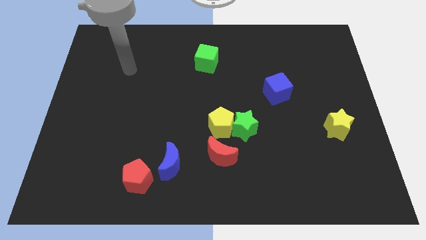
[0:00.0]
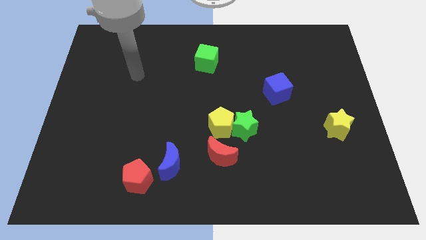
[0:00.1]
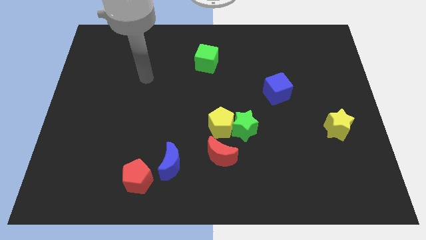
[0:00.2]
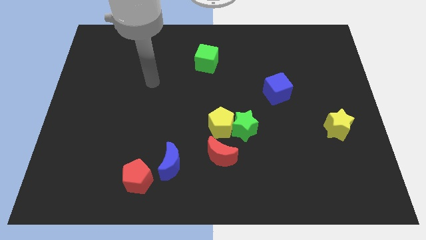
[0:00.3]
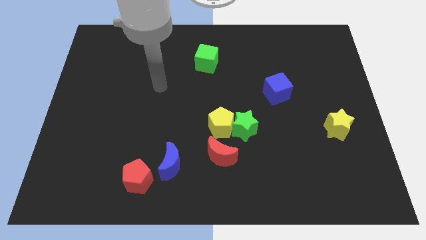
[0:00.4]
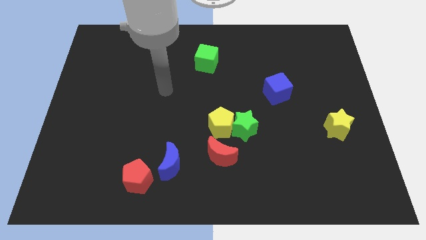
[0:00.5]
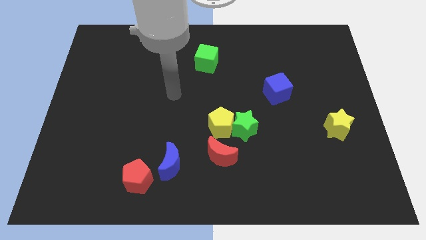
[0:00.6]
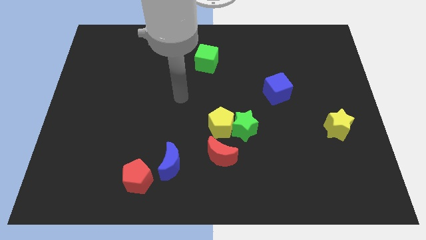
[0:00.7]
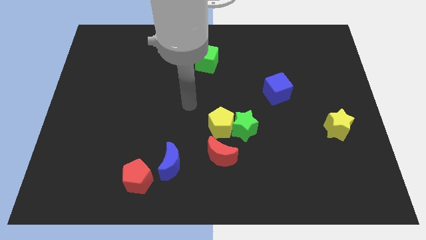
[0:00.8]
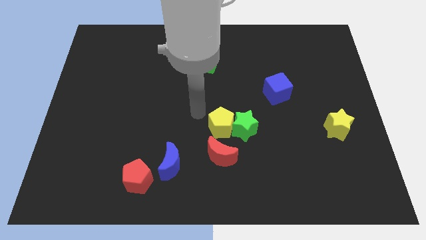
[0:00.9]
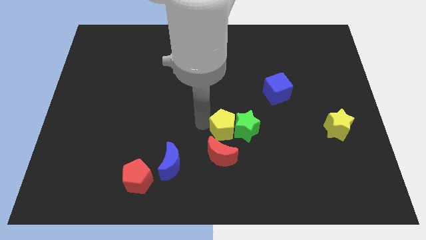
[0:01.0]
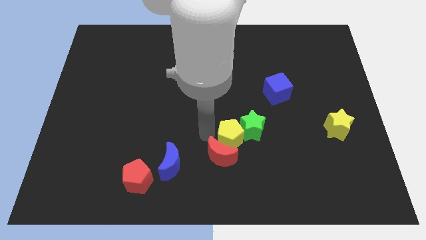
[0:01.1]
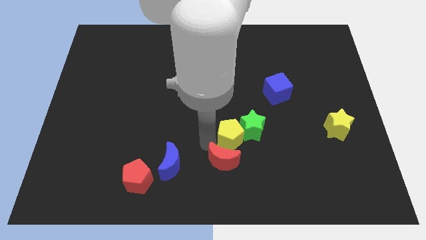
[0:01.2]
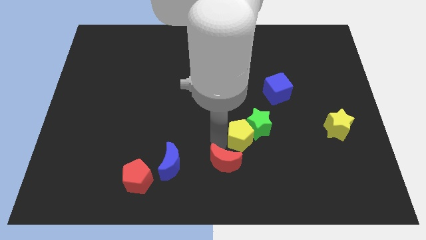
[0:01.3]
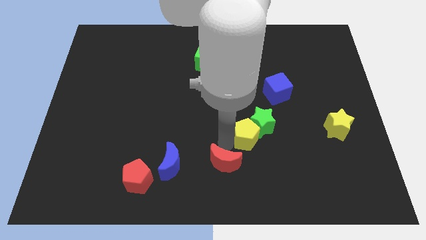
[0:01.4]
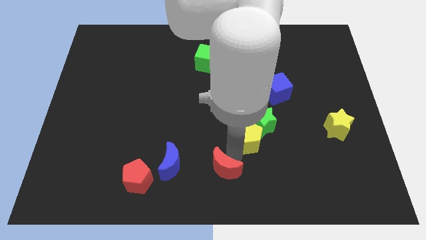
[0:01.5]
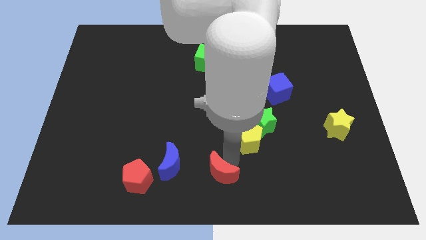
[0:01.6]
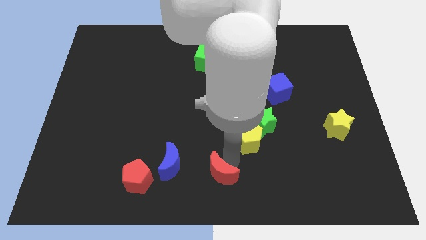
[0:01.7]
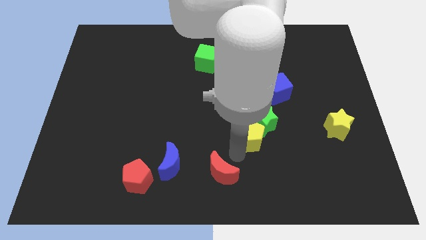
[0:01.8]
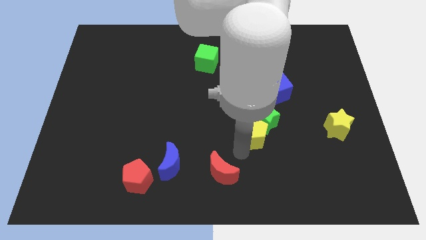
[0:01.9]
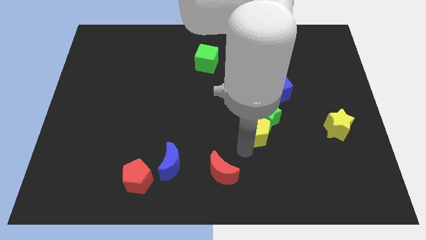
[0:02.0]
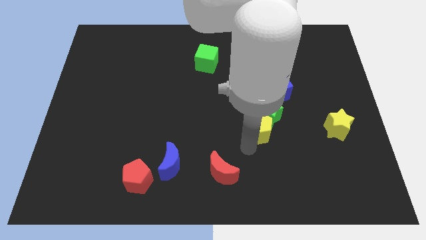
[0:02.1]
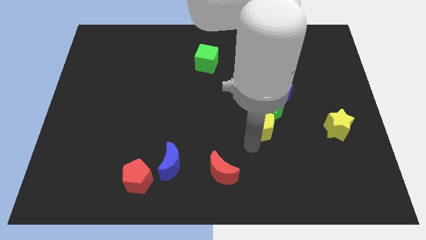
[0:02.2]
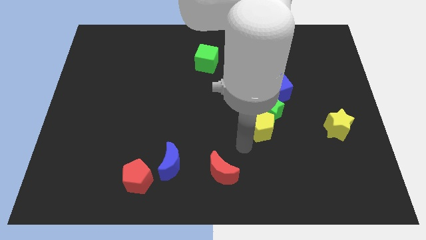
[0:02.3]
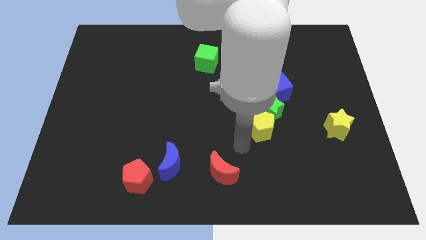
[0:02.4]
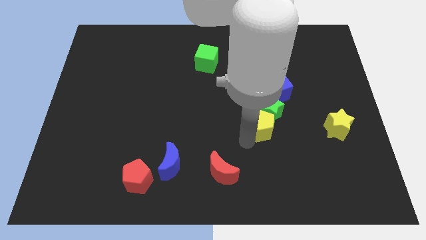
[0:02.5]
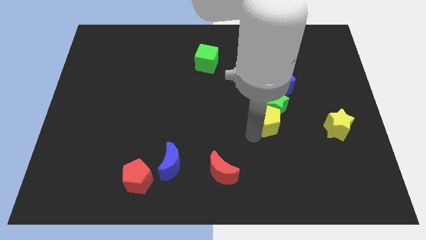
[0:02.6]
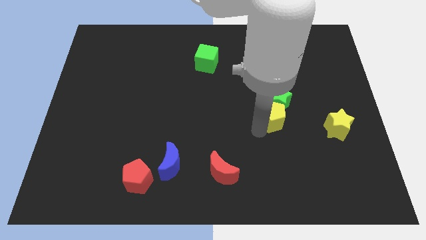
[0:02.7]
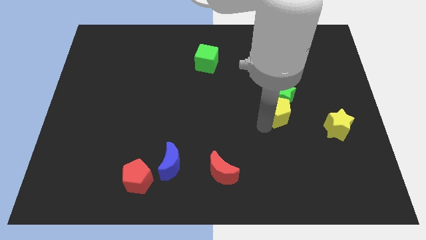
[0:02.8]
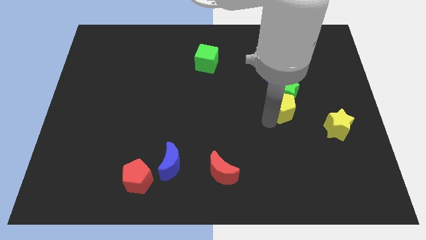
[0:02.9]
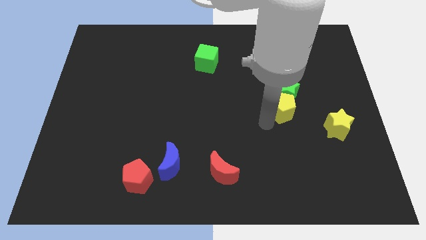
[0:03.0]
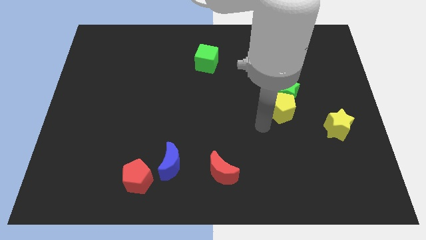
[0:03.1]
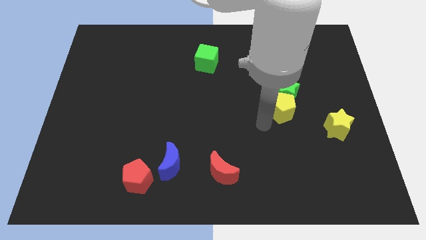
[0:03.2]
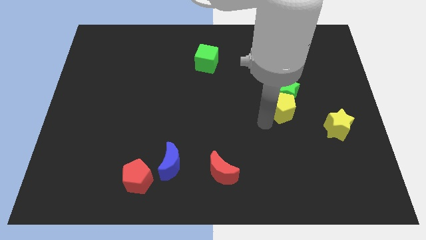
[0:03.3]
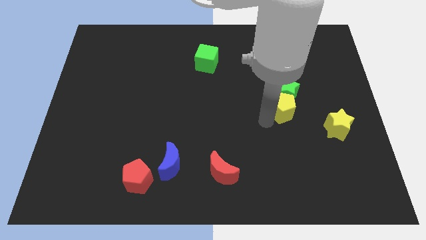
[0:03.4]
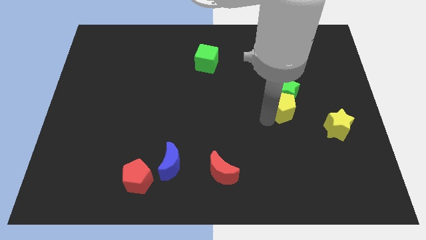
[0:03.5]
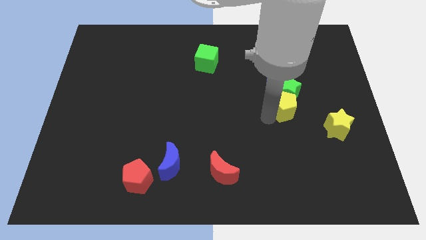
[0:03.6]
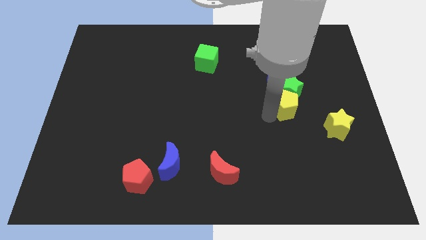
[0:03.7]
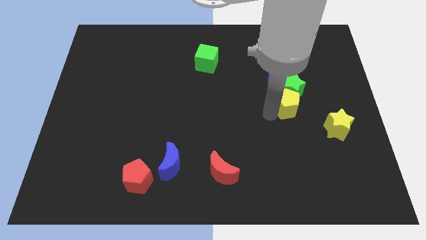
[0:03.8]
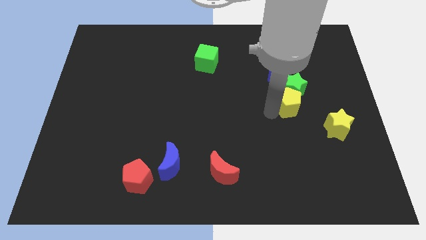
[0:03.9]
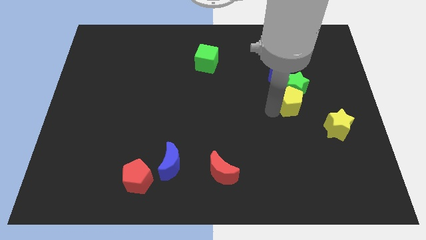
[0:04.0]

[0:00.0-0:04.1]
separate the yellow pentagon from the green star and red moon

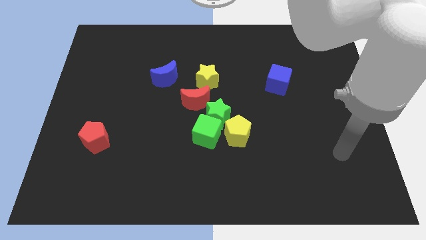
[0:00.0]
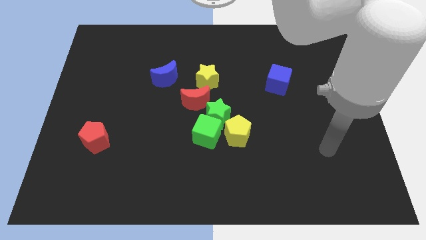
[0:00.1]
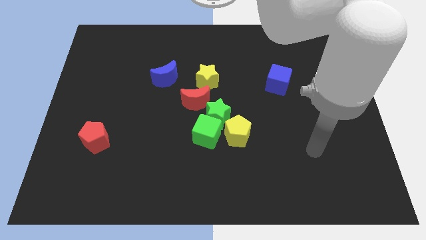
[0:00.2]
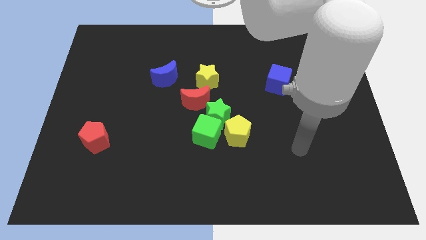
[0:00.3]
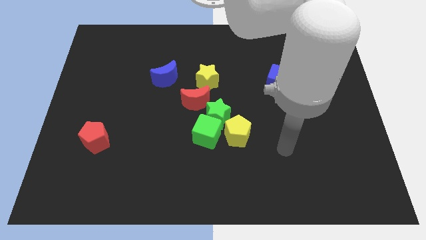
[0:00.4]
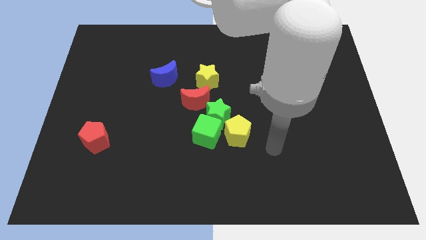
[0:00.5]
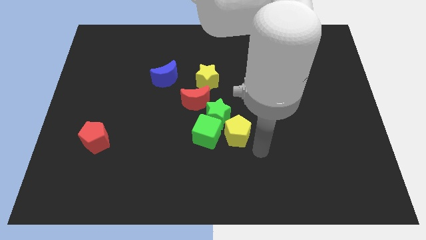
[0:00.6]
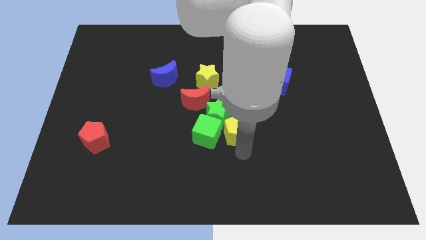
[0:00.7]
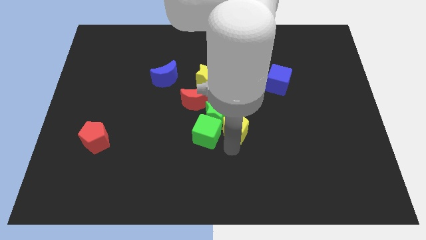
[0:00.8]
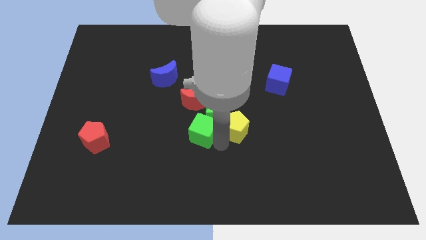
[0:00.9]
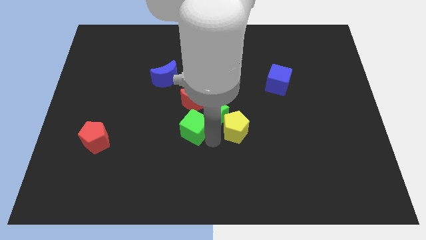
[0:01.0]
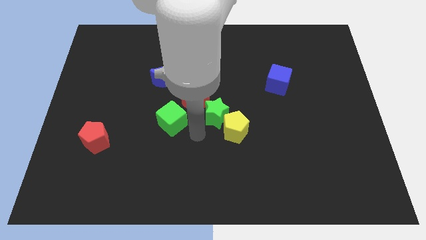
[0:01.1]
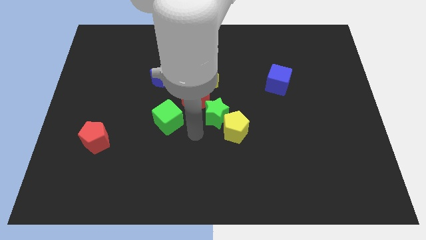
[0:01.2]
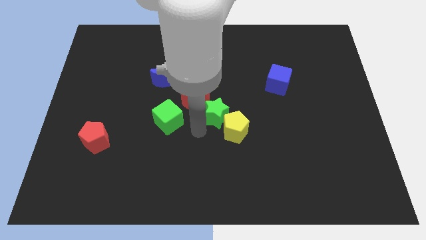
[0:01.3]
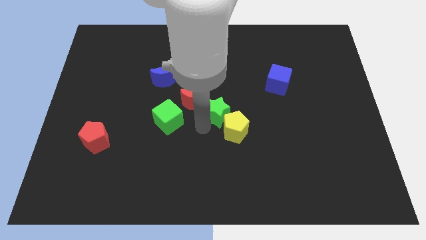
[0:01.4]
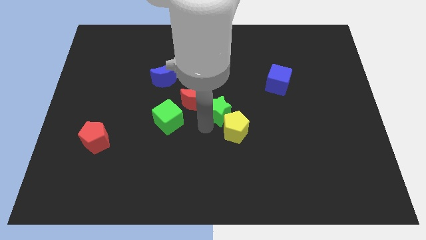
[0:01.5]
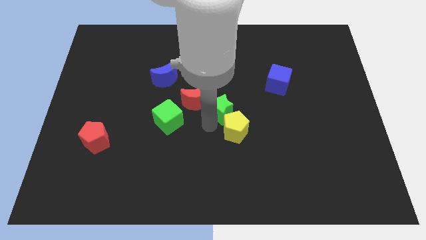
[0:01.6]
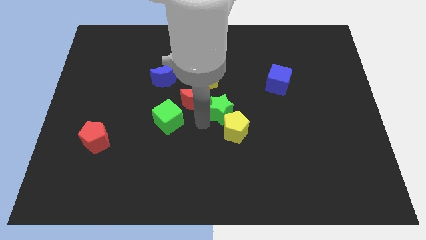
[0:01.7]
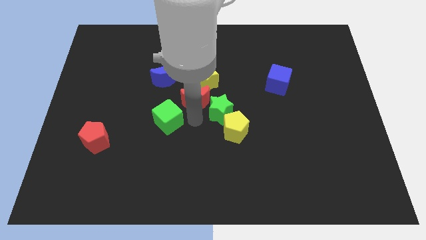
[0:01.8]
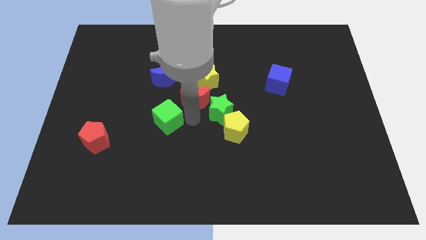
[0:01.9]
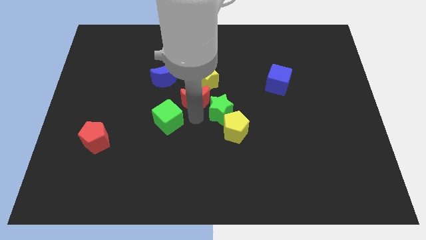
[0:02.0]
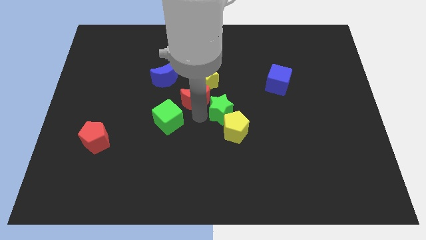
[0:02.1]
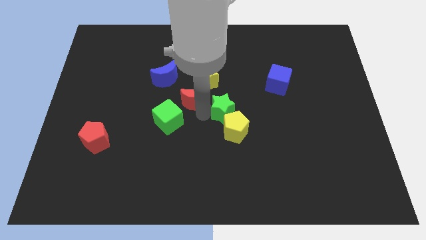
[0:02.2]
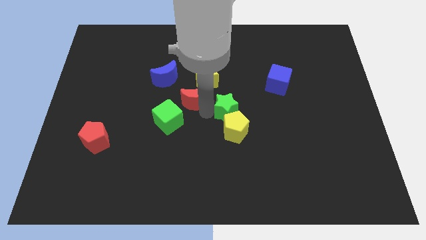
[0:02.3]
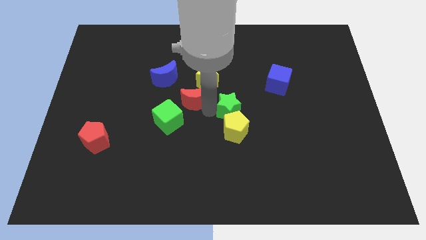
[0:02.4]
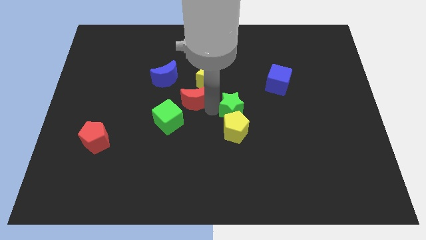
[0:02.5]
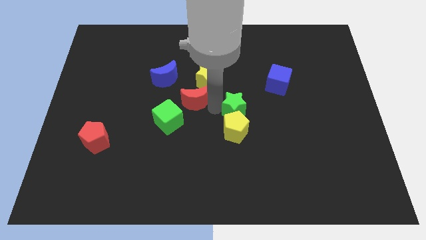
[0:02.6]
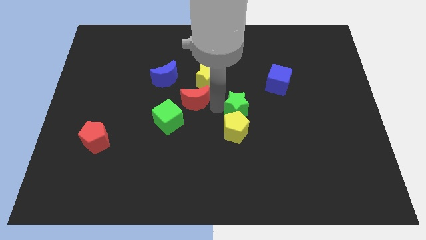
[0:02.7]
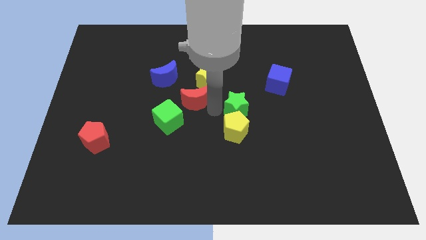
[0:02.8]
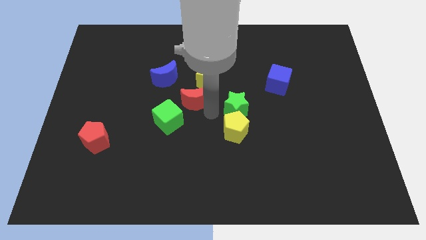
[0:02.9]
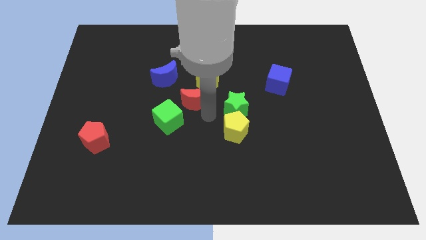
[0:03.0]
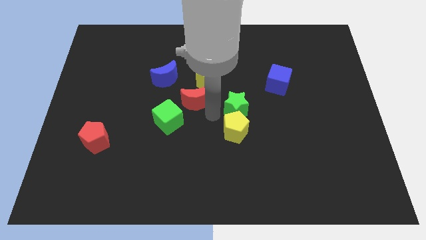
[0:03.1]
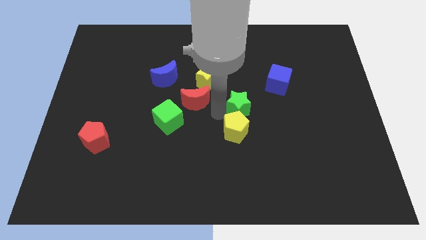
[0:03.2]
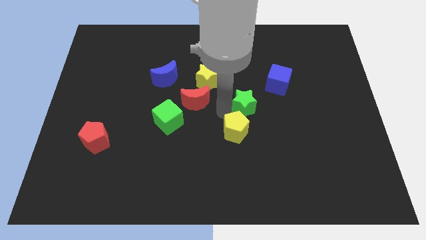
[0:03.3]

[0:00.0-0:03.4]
pull the green star apart from the clump

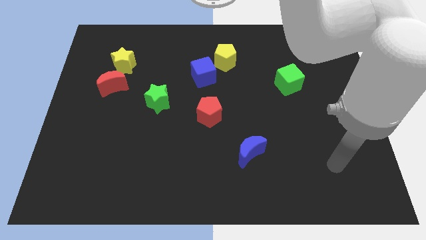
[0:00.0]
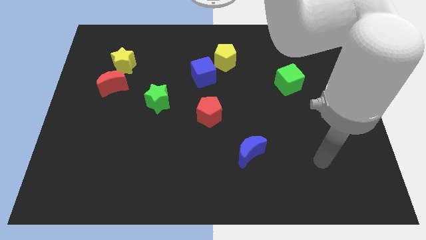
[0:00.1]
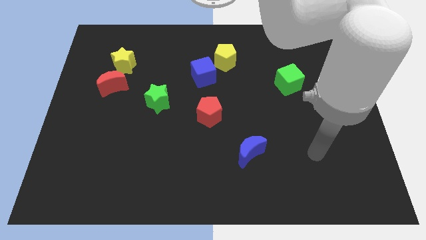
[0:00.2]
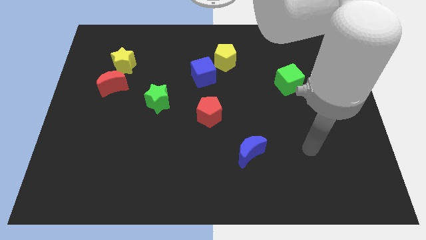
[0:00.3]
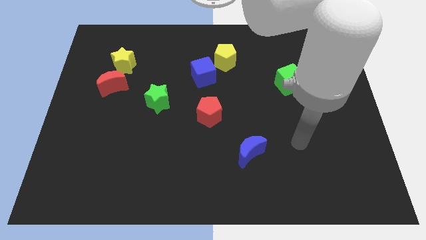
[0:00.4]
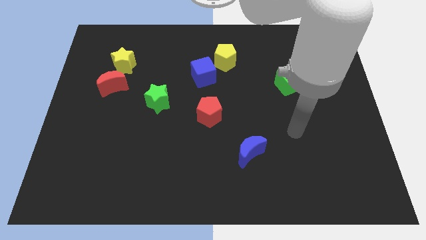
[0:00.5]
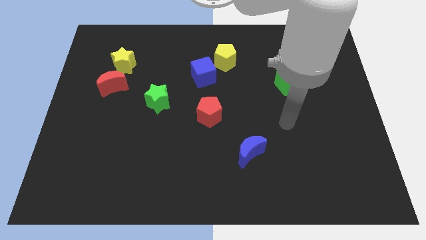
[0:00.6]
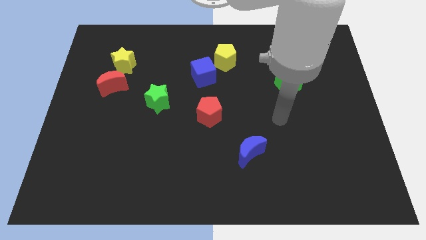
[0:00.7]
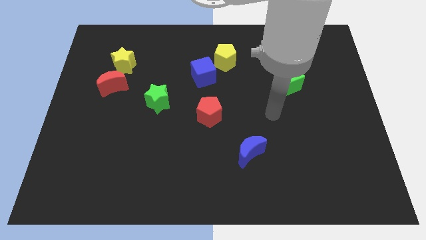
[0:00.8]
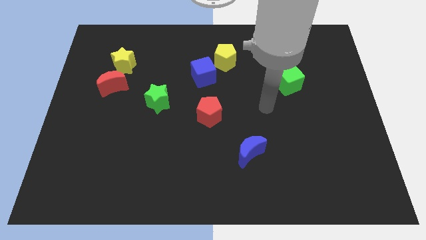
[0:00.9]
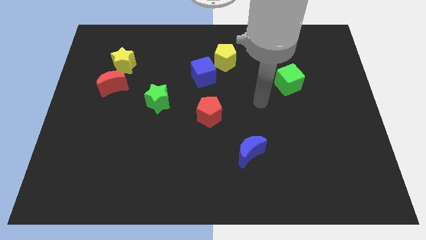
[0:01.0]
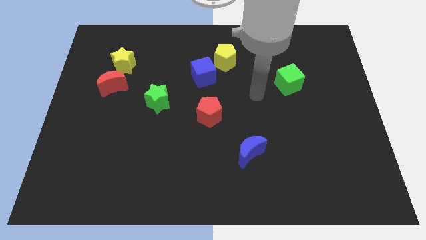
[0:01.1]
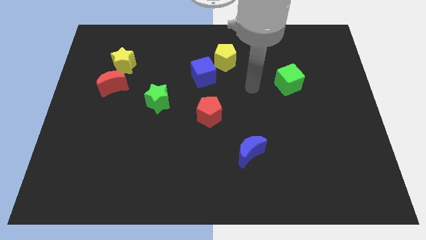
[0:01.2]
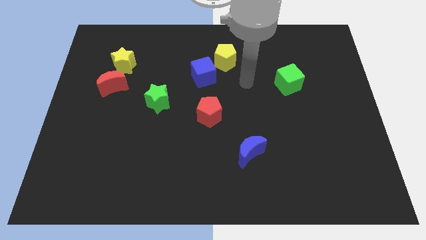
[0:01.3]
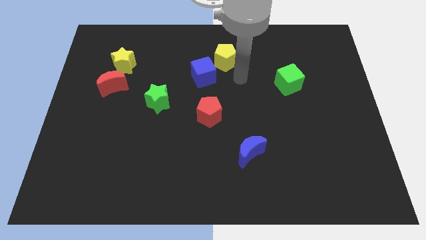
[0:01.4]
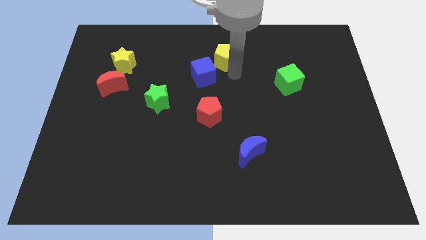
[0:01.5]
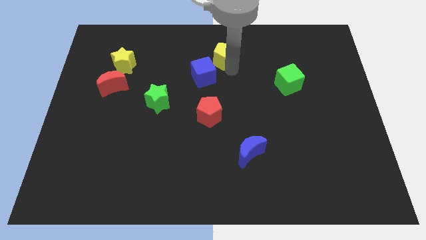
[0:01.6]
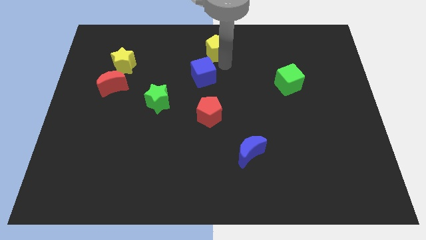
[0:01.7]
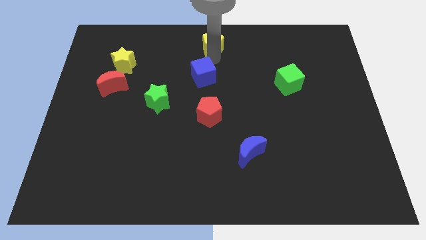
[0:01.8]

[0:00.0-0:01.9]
pull the blue cube apart from the yellow pentagon
